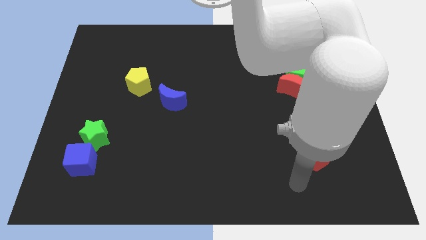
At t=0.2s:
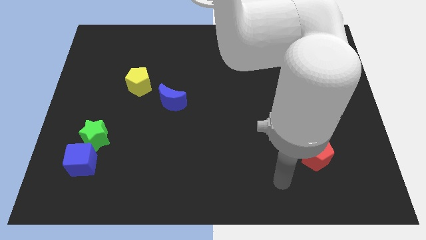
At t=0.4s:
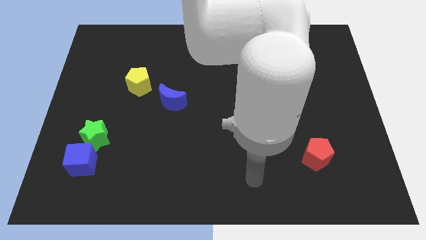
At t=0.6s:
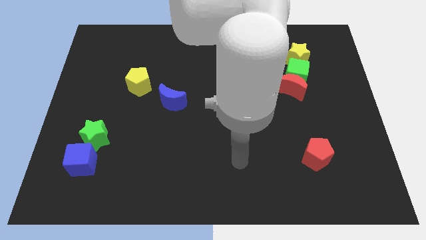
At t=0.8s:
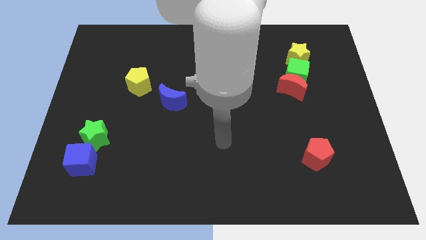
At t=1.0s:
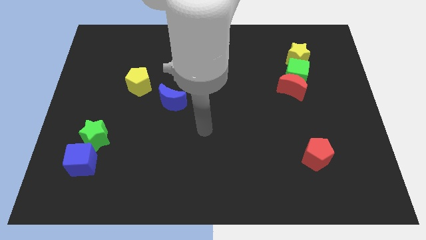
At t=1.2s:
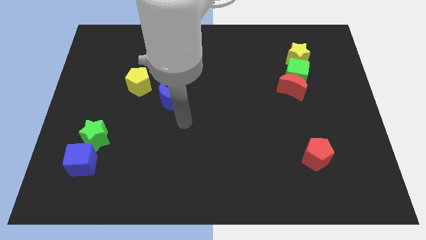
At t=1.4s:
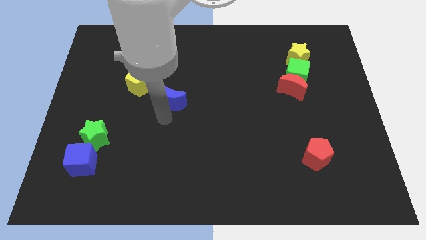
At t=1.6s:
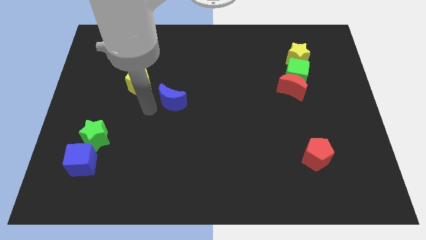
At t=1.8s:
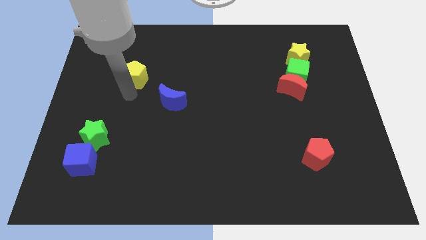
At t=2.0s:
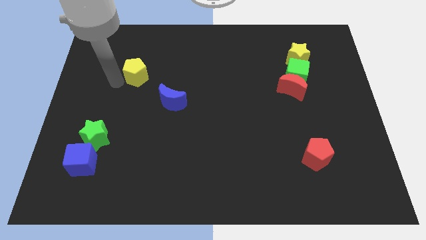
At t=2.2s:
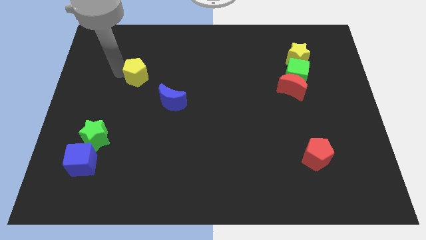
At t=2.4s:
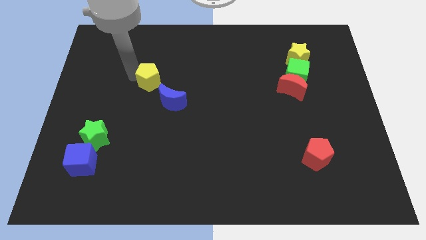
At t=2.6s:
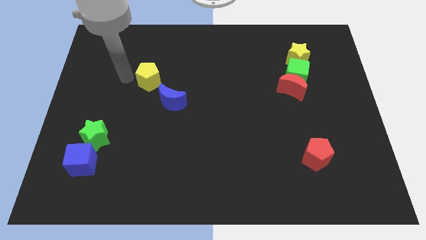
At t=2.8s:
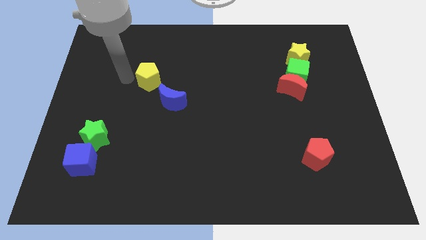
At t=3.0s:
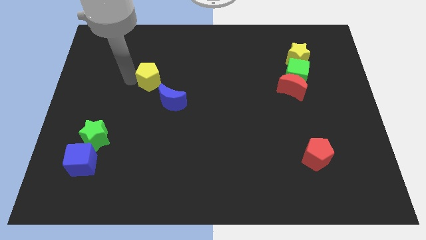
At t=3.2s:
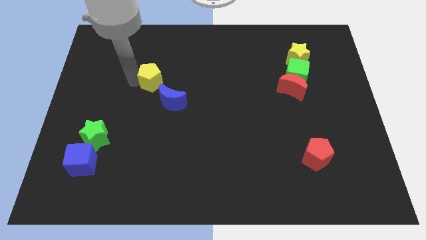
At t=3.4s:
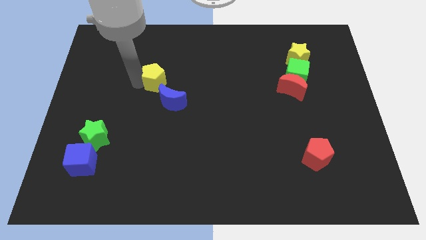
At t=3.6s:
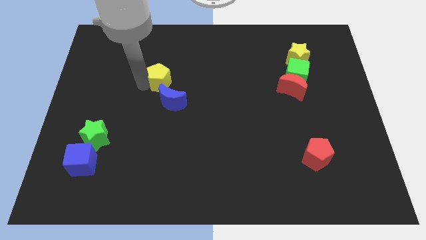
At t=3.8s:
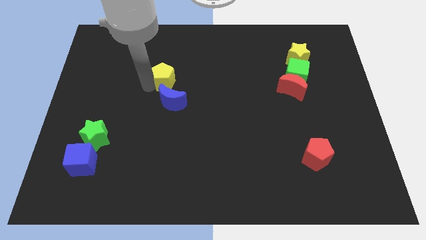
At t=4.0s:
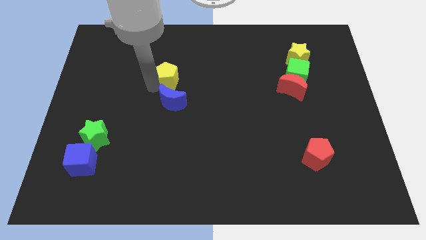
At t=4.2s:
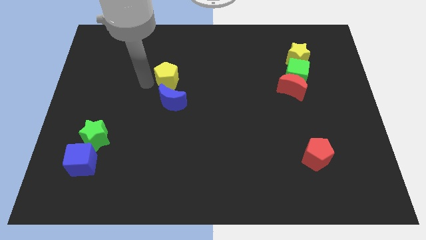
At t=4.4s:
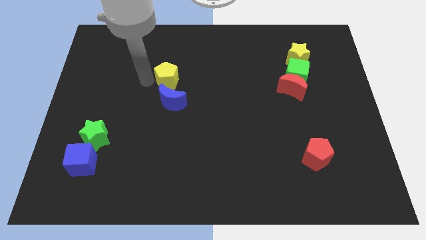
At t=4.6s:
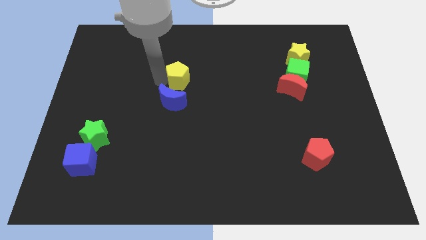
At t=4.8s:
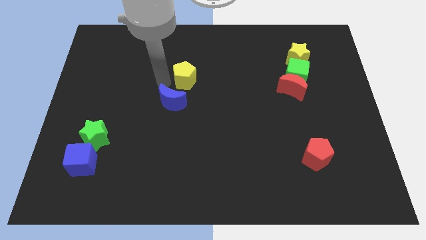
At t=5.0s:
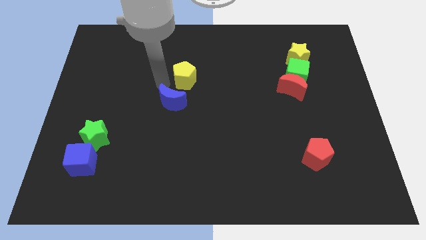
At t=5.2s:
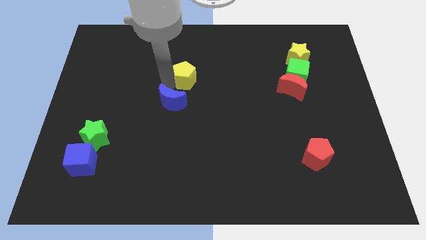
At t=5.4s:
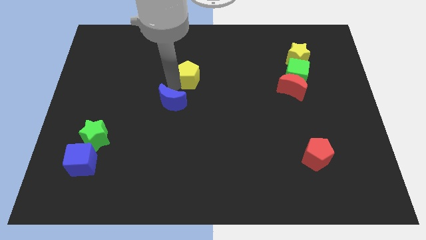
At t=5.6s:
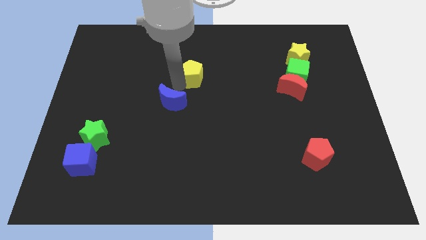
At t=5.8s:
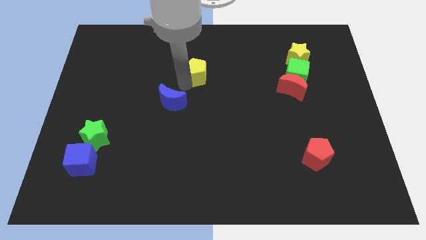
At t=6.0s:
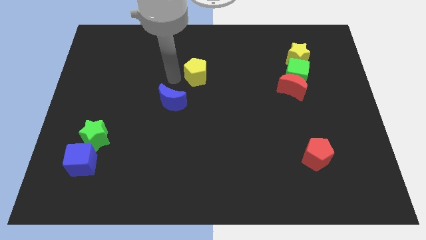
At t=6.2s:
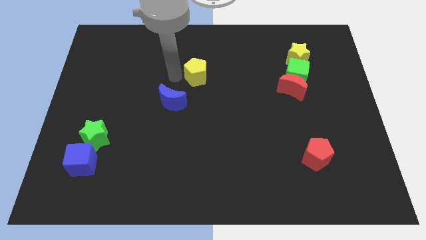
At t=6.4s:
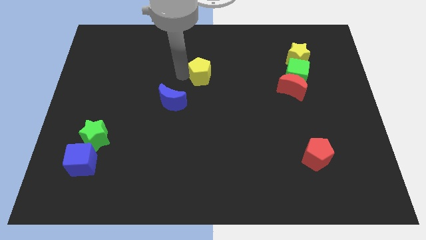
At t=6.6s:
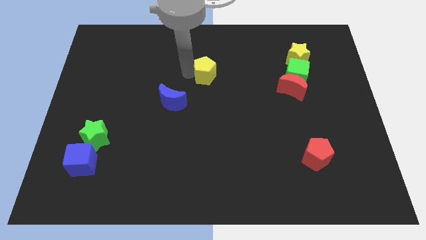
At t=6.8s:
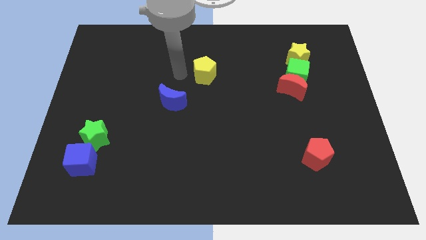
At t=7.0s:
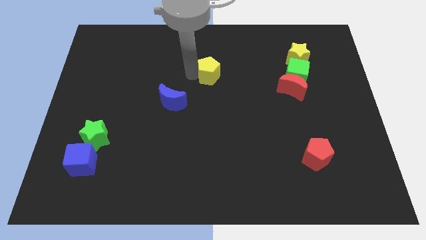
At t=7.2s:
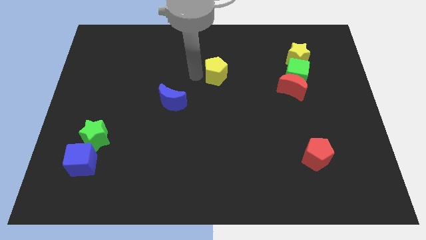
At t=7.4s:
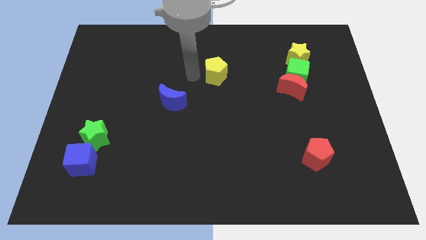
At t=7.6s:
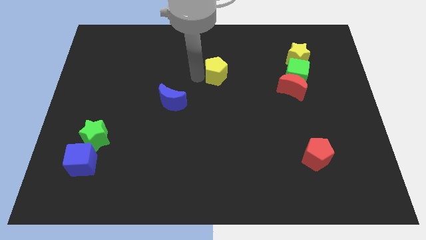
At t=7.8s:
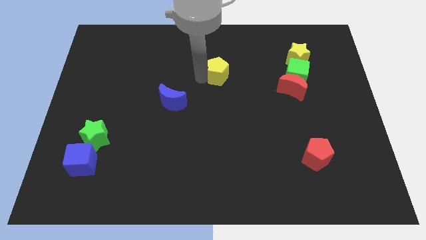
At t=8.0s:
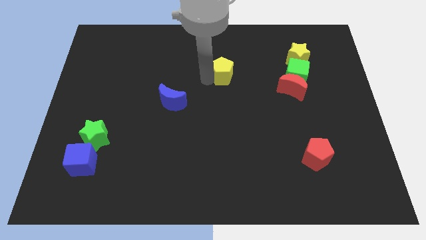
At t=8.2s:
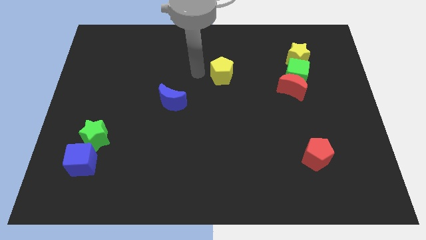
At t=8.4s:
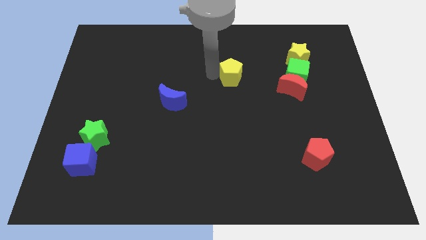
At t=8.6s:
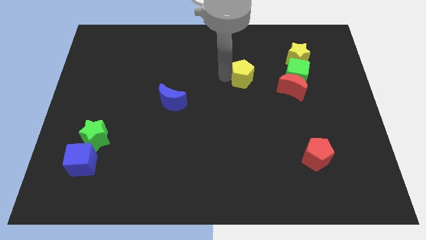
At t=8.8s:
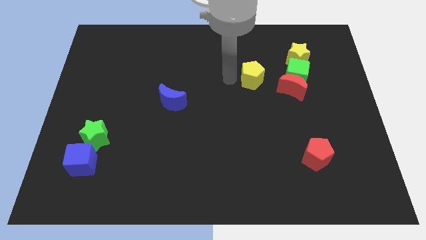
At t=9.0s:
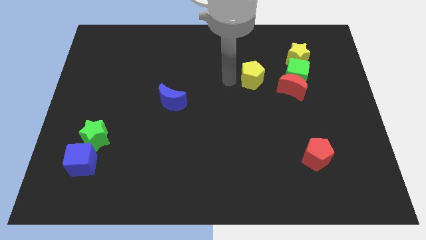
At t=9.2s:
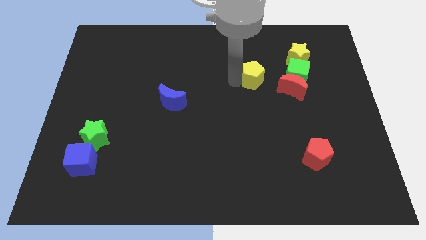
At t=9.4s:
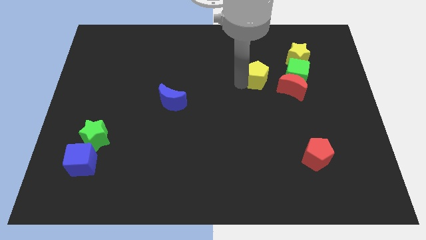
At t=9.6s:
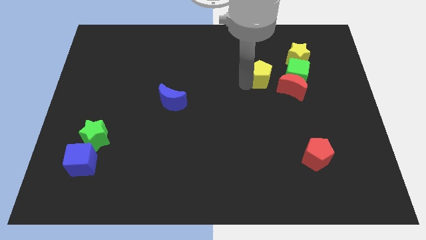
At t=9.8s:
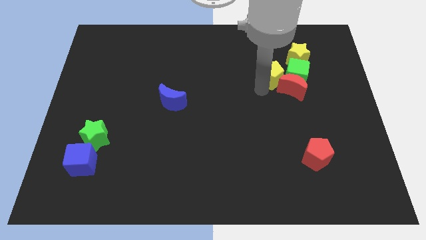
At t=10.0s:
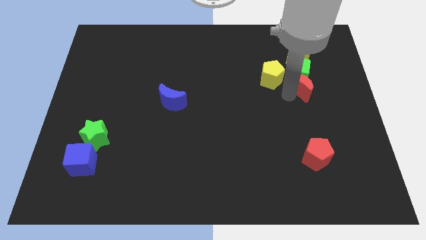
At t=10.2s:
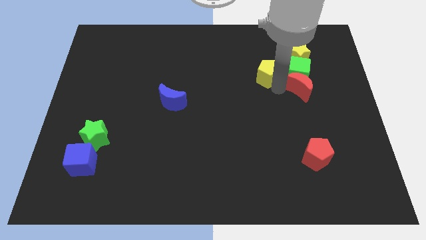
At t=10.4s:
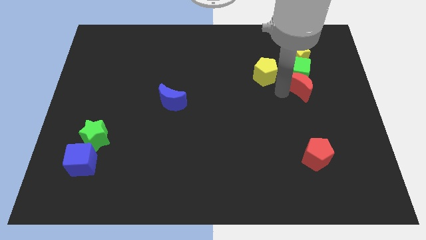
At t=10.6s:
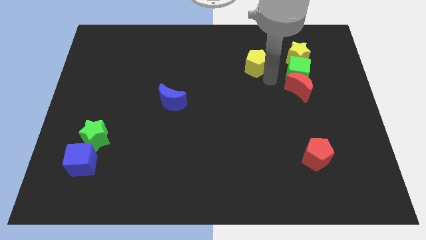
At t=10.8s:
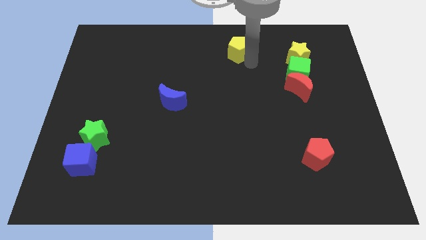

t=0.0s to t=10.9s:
push the yellow pentagon to the towards your base
